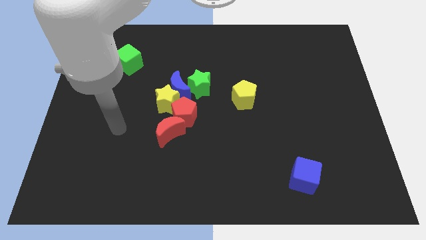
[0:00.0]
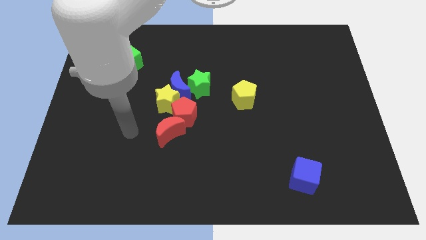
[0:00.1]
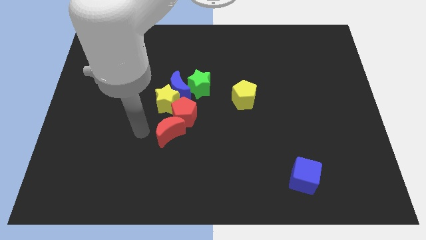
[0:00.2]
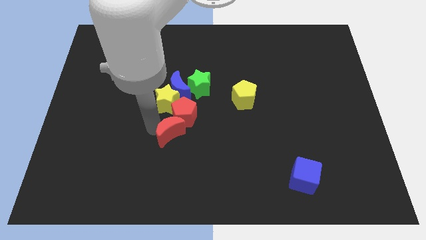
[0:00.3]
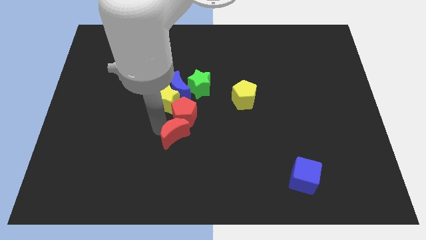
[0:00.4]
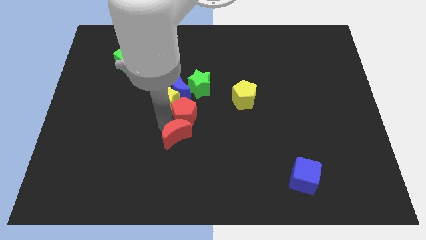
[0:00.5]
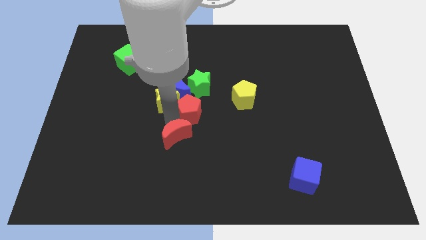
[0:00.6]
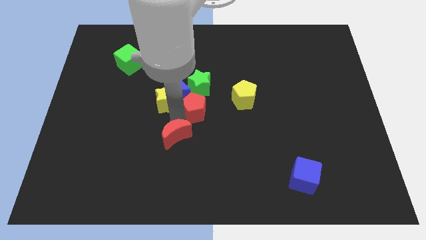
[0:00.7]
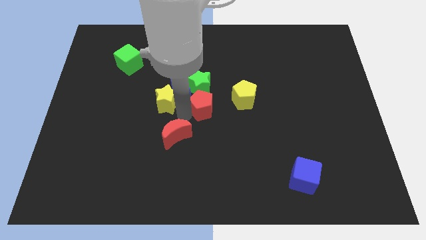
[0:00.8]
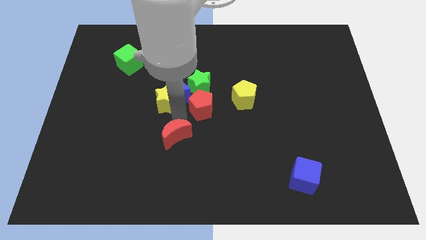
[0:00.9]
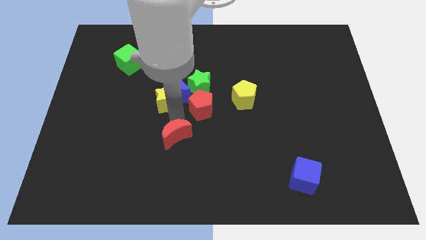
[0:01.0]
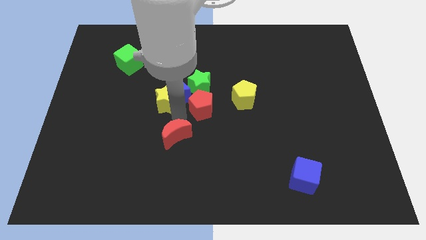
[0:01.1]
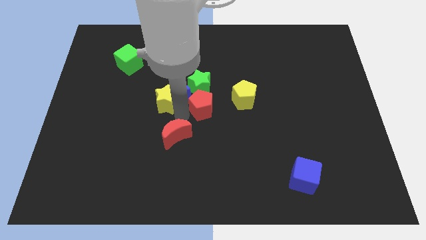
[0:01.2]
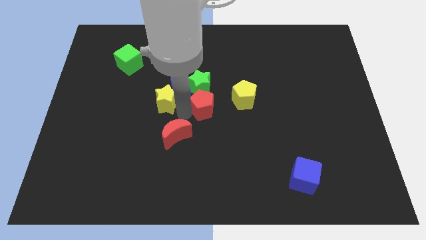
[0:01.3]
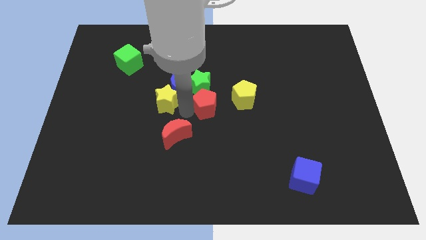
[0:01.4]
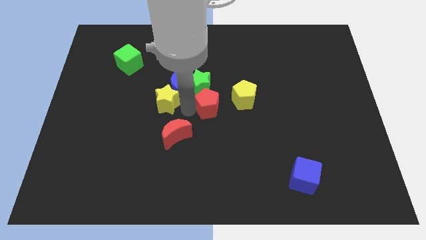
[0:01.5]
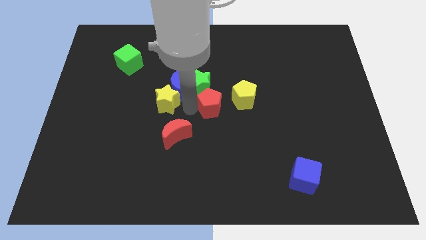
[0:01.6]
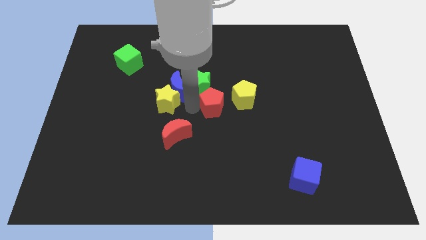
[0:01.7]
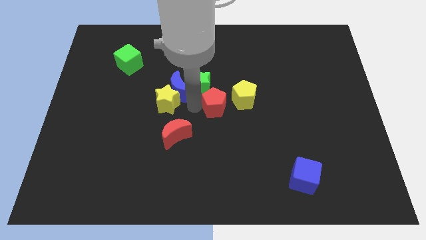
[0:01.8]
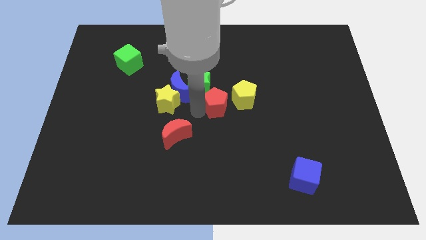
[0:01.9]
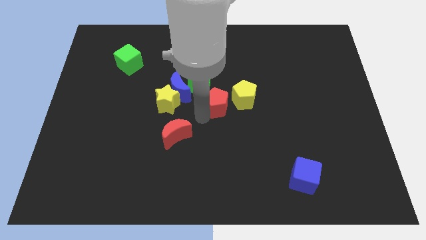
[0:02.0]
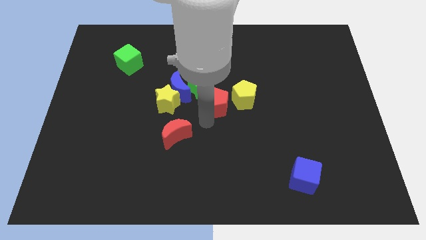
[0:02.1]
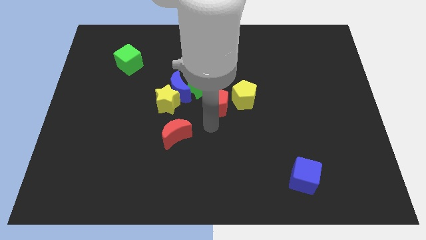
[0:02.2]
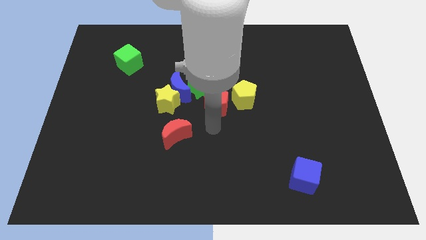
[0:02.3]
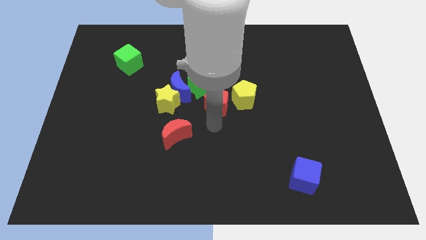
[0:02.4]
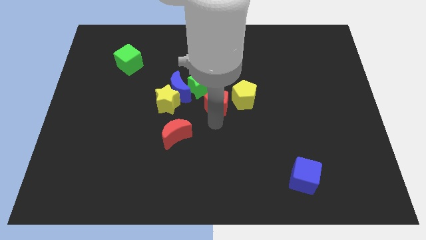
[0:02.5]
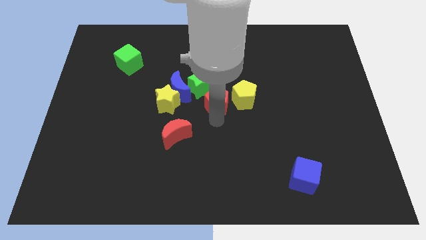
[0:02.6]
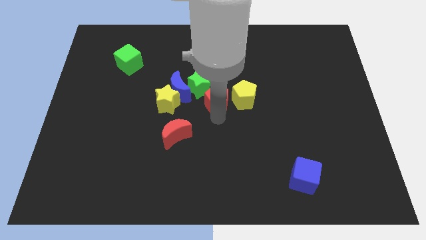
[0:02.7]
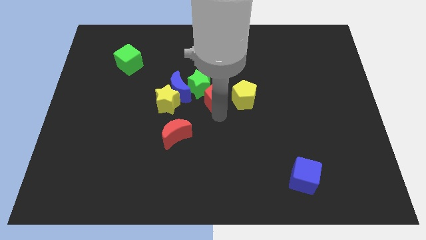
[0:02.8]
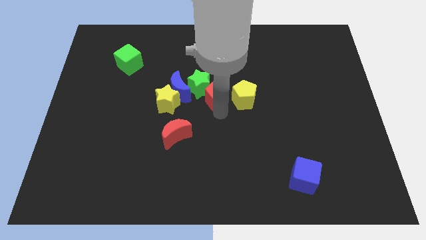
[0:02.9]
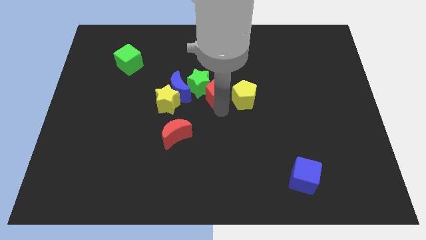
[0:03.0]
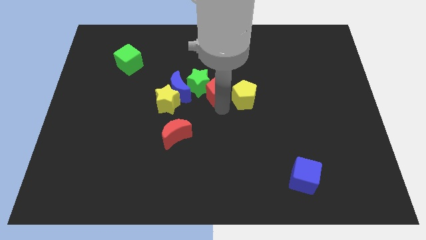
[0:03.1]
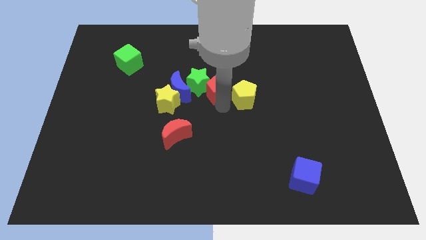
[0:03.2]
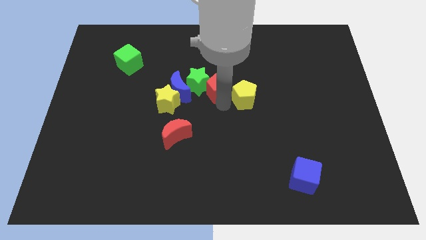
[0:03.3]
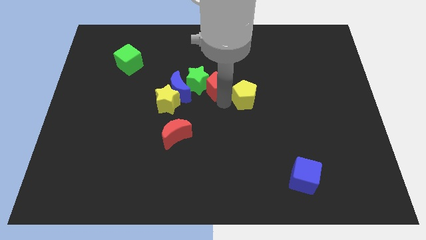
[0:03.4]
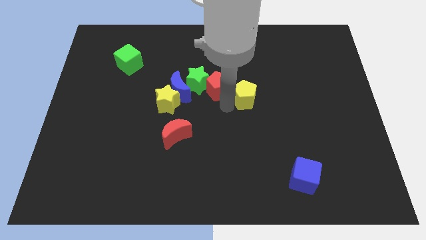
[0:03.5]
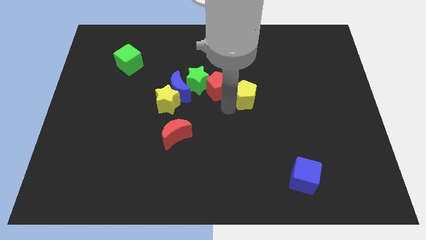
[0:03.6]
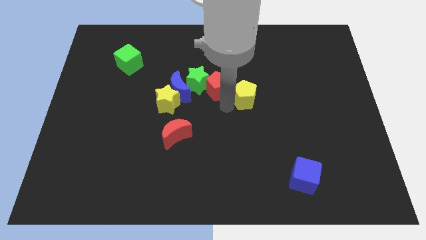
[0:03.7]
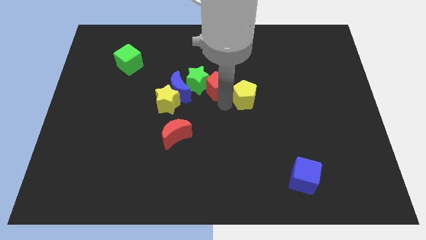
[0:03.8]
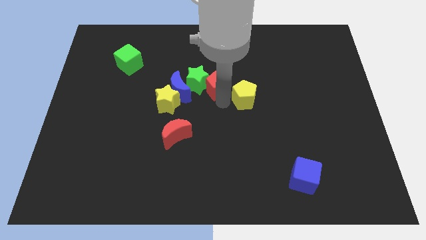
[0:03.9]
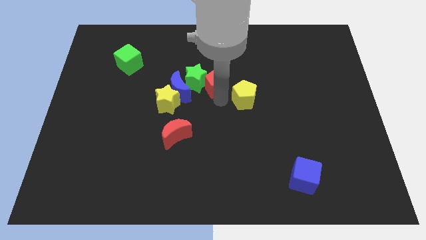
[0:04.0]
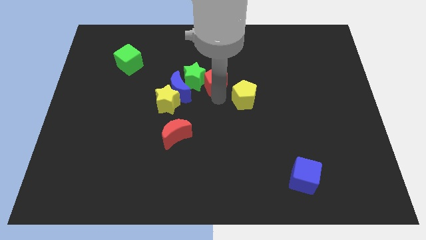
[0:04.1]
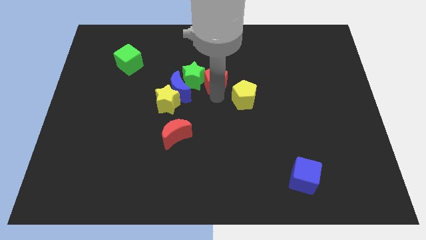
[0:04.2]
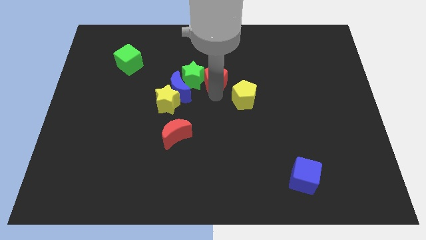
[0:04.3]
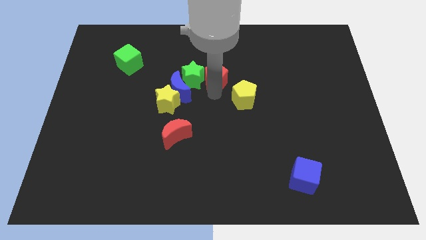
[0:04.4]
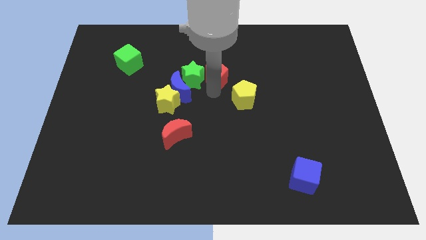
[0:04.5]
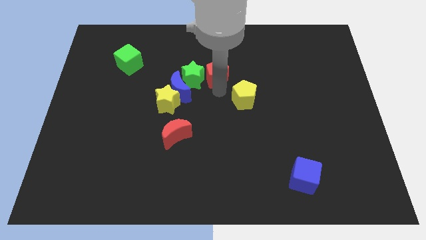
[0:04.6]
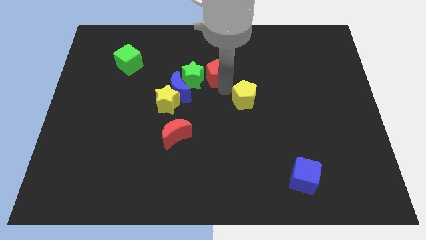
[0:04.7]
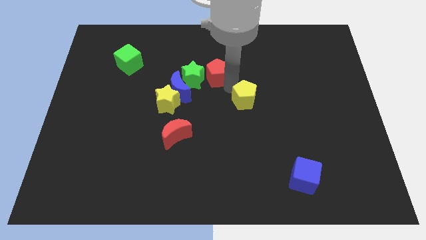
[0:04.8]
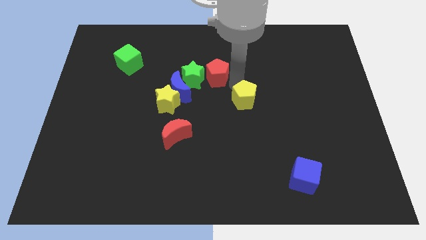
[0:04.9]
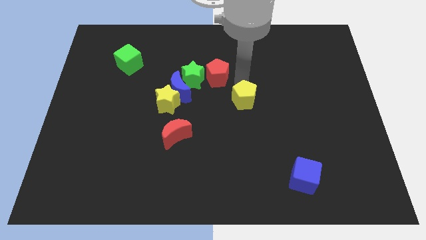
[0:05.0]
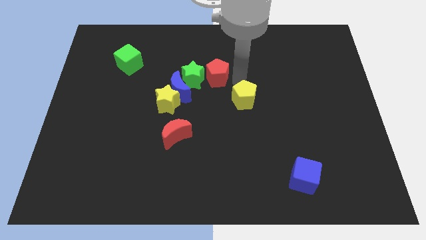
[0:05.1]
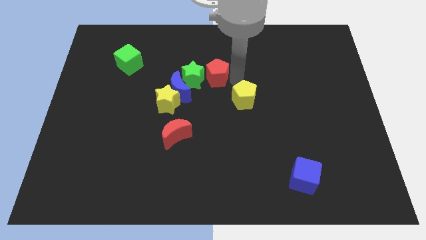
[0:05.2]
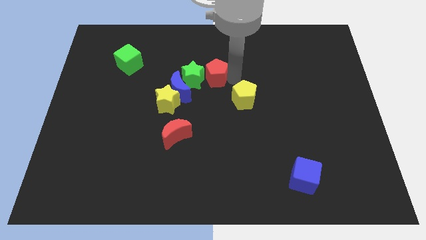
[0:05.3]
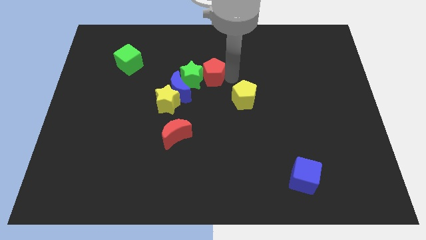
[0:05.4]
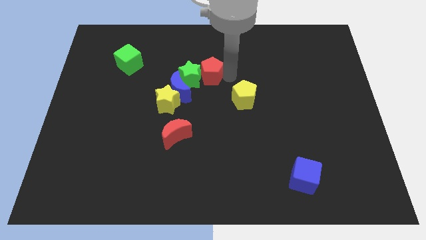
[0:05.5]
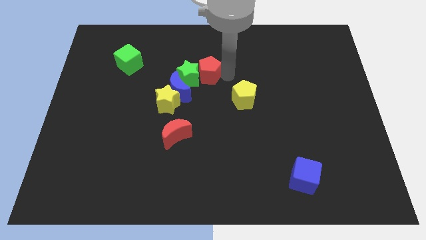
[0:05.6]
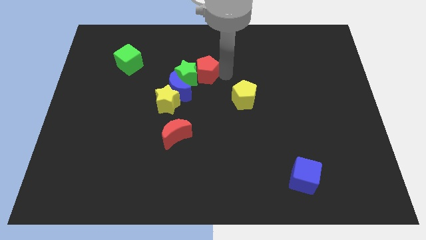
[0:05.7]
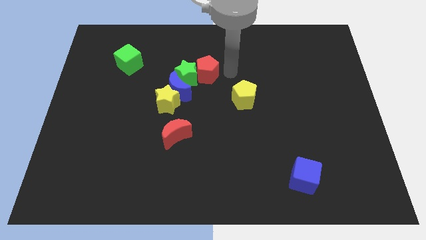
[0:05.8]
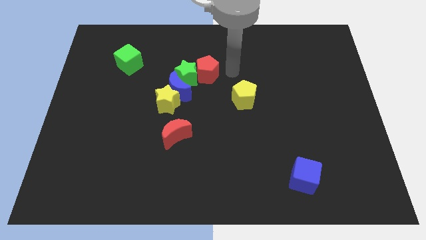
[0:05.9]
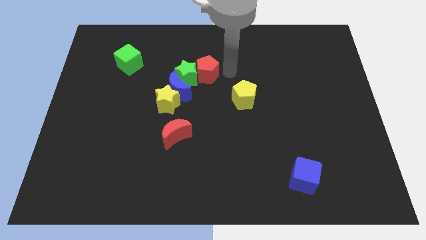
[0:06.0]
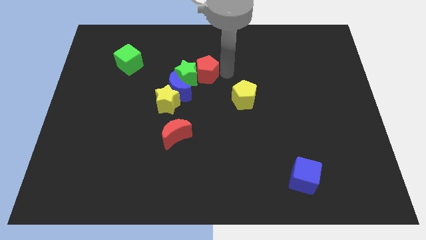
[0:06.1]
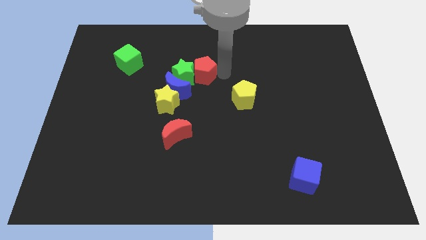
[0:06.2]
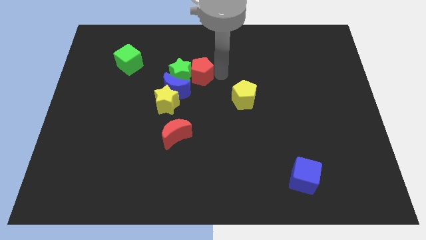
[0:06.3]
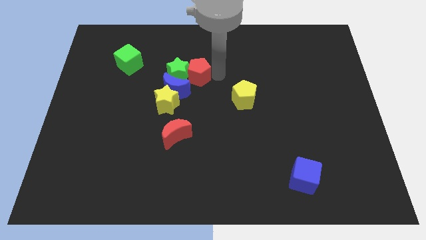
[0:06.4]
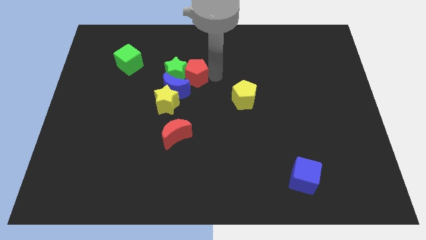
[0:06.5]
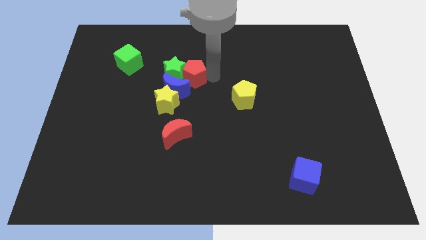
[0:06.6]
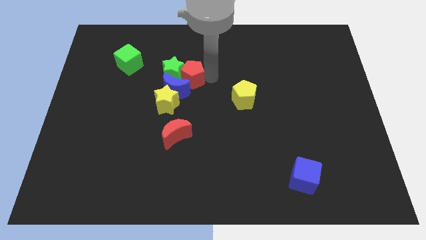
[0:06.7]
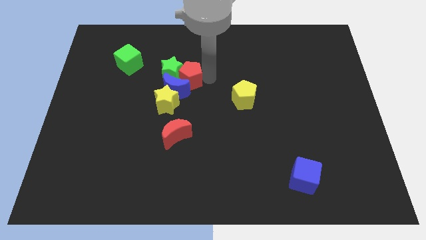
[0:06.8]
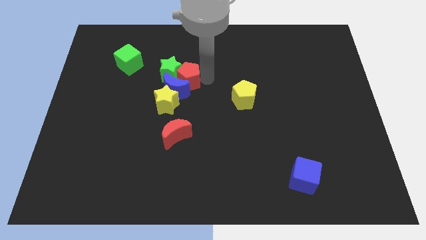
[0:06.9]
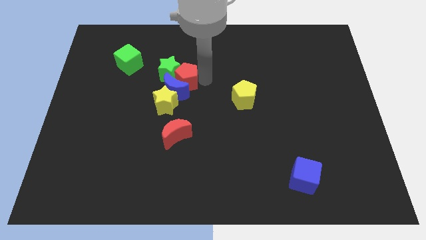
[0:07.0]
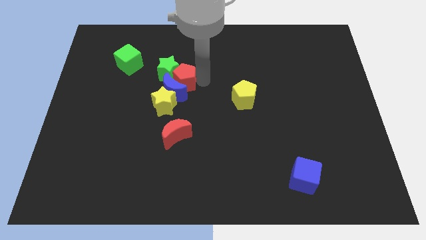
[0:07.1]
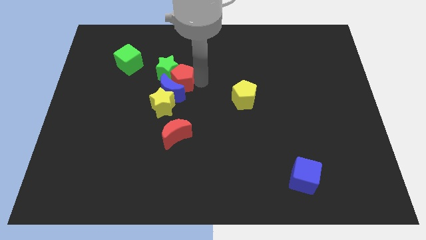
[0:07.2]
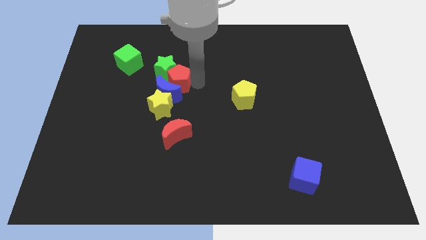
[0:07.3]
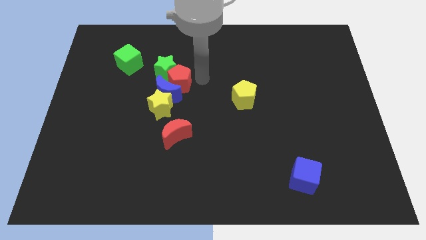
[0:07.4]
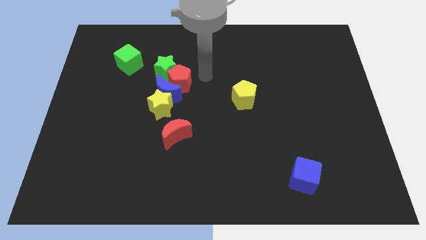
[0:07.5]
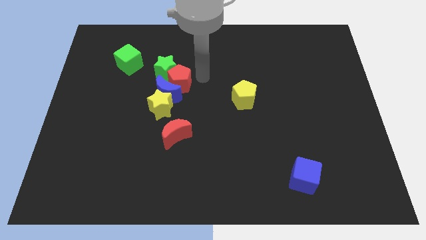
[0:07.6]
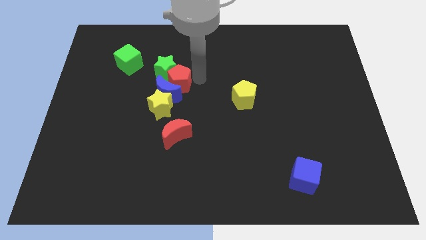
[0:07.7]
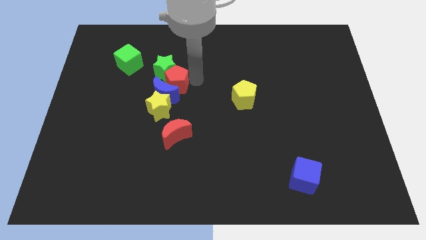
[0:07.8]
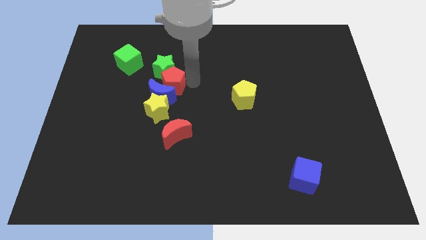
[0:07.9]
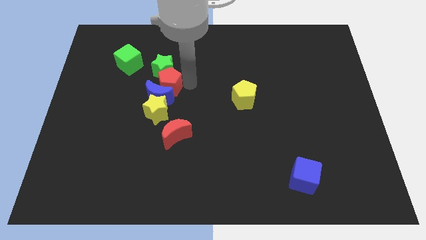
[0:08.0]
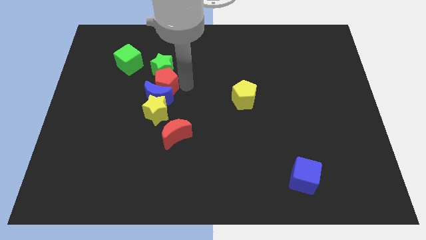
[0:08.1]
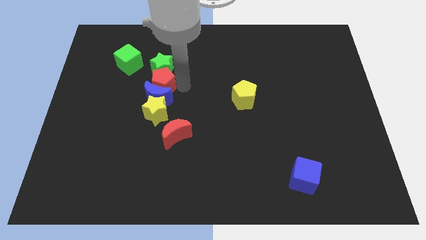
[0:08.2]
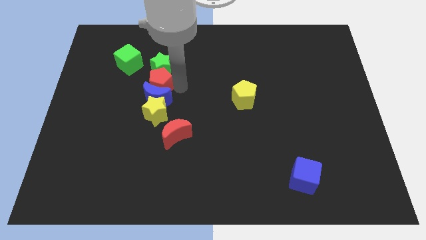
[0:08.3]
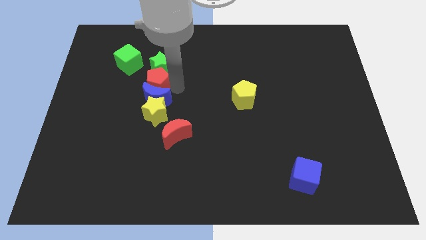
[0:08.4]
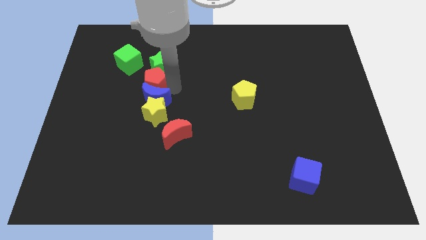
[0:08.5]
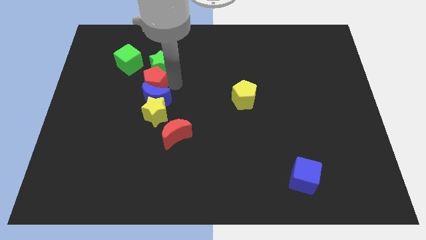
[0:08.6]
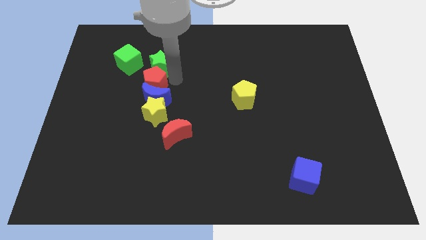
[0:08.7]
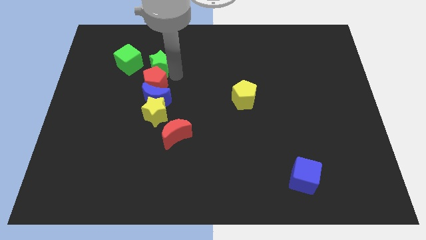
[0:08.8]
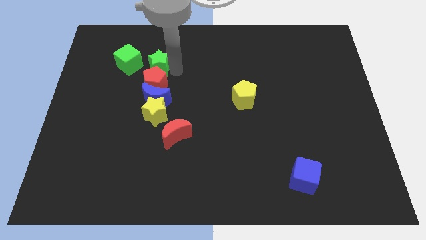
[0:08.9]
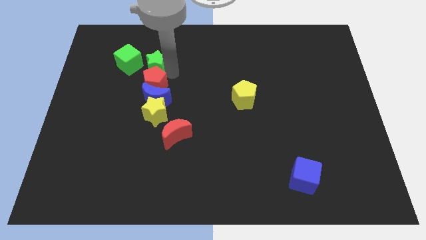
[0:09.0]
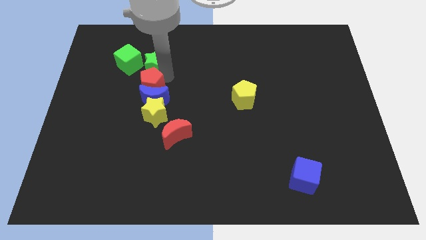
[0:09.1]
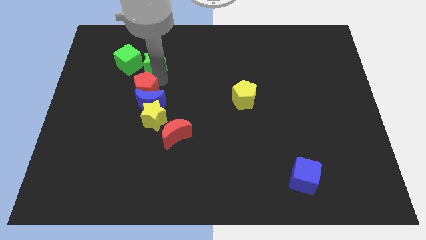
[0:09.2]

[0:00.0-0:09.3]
move the red pentagon to the top left side of the yellow star
